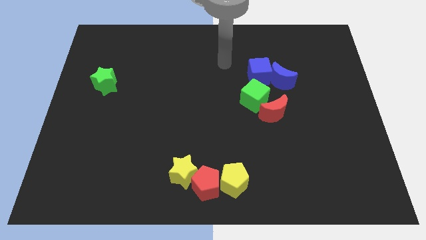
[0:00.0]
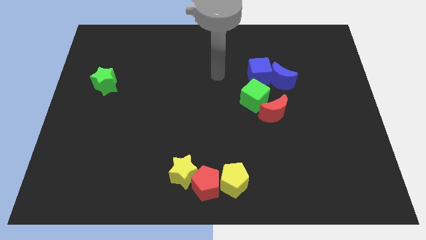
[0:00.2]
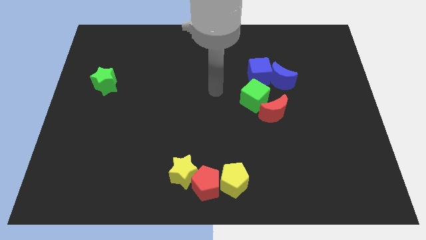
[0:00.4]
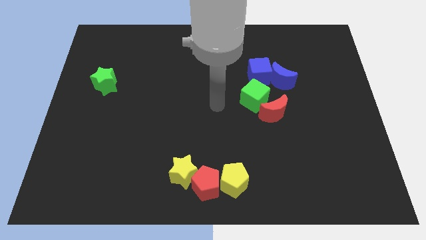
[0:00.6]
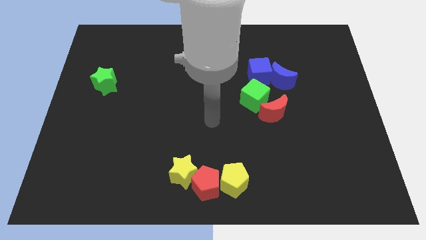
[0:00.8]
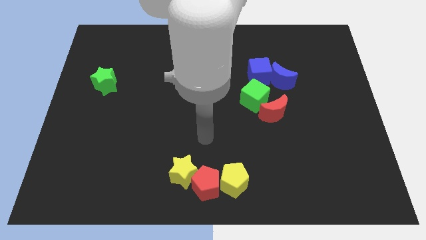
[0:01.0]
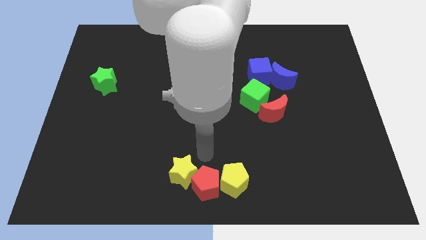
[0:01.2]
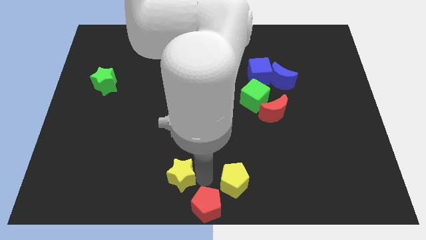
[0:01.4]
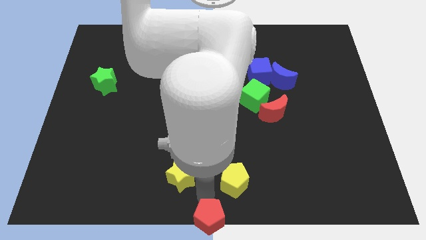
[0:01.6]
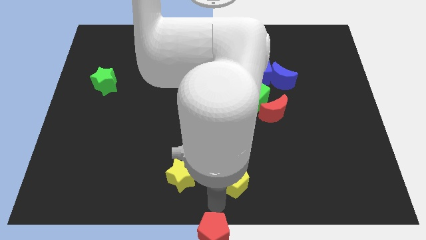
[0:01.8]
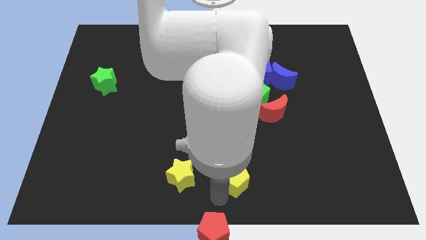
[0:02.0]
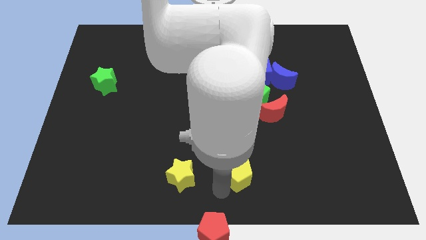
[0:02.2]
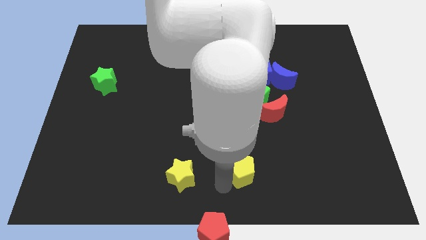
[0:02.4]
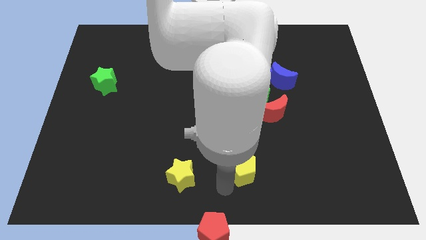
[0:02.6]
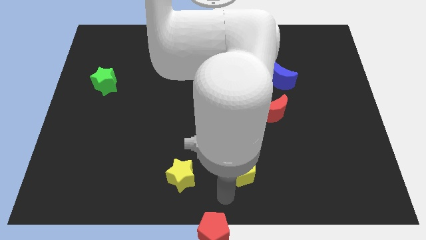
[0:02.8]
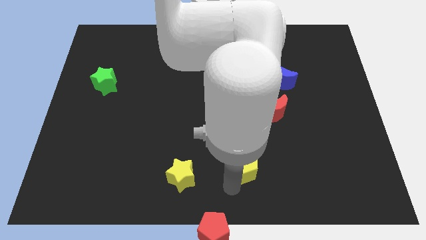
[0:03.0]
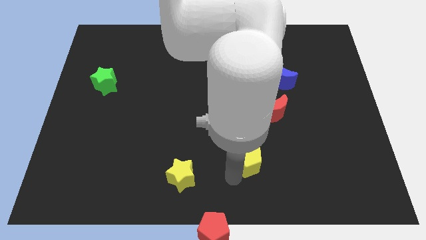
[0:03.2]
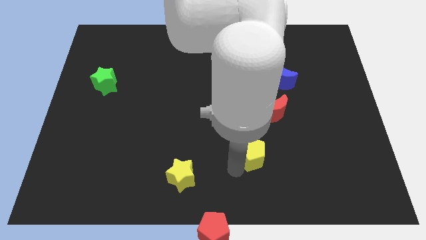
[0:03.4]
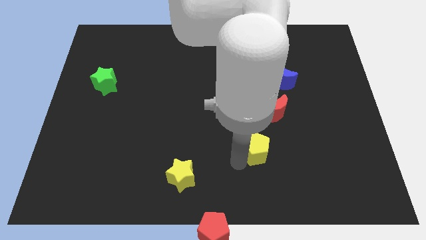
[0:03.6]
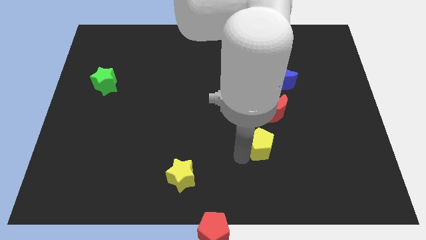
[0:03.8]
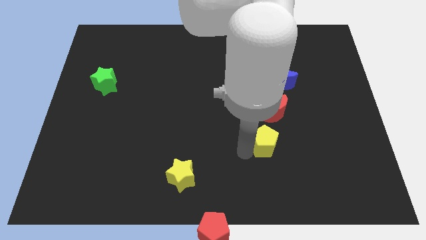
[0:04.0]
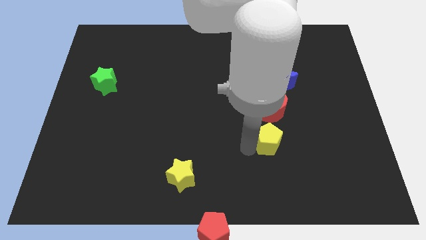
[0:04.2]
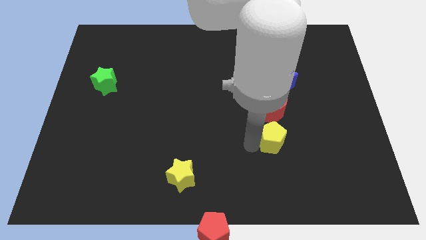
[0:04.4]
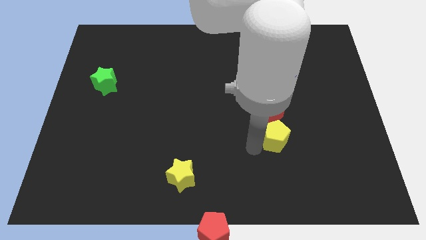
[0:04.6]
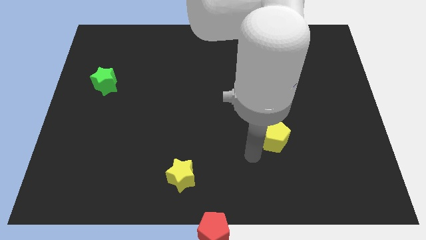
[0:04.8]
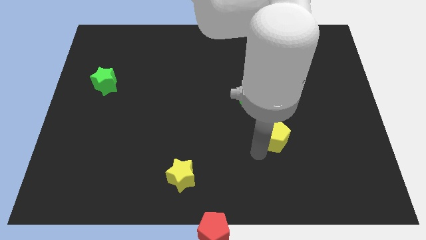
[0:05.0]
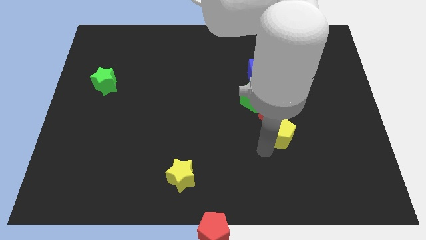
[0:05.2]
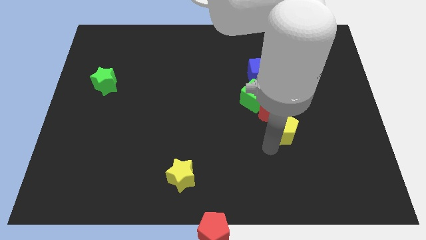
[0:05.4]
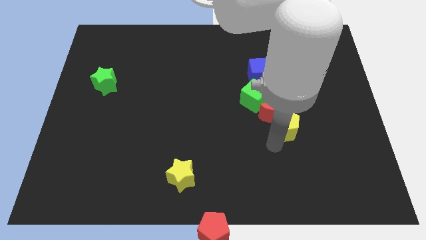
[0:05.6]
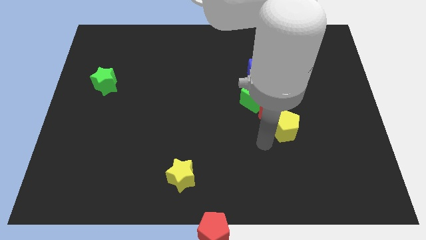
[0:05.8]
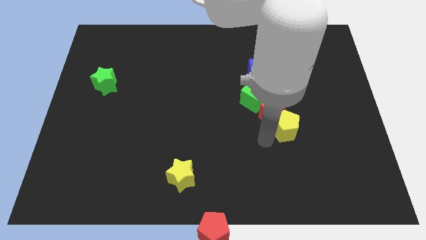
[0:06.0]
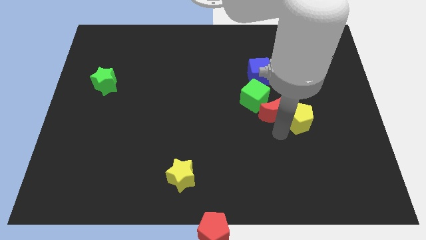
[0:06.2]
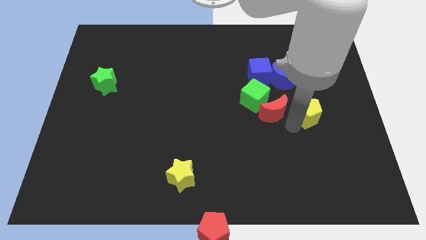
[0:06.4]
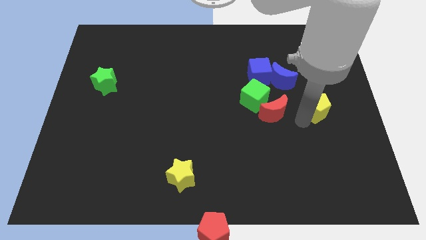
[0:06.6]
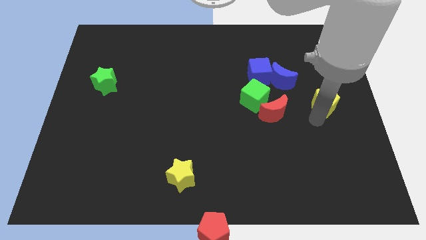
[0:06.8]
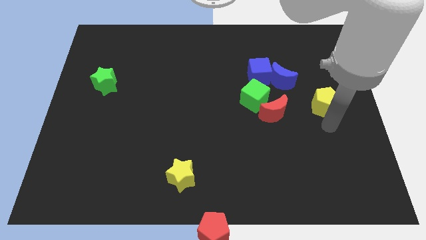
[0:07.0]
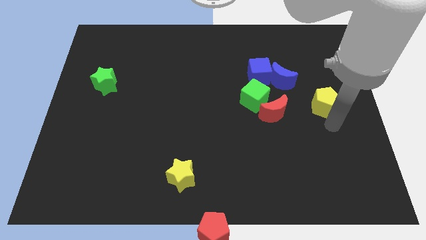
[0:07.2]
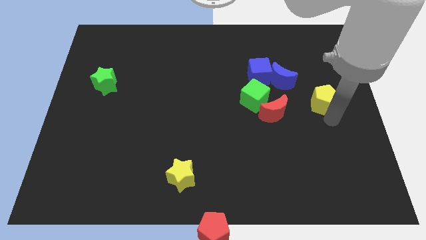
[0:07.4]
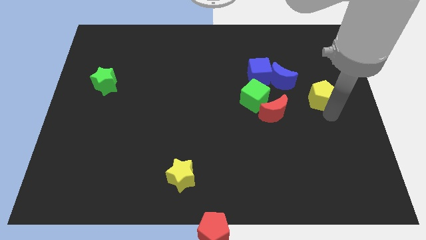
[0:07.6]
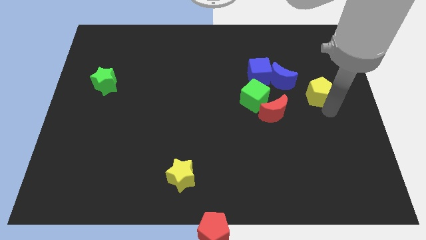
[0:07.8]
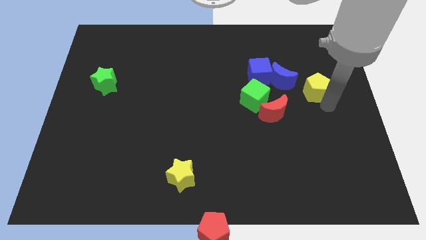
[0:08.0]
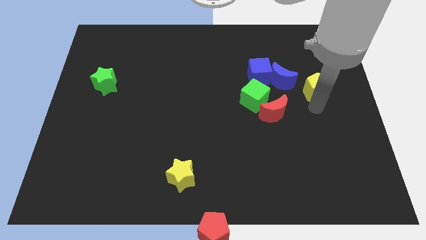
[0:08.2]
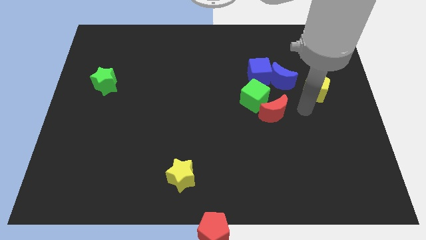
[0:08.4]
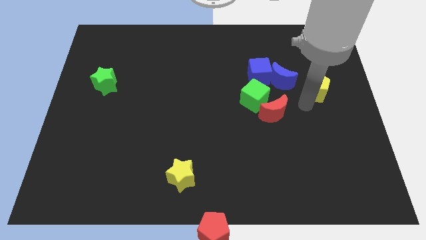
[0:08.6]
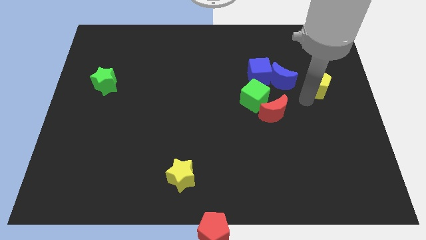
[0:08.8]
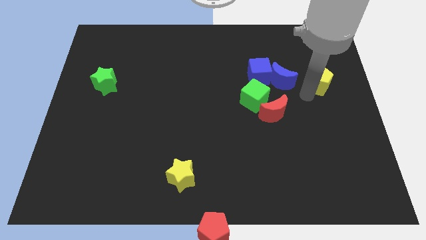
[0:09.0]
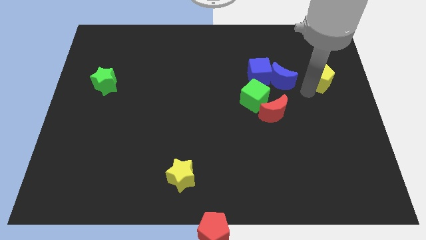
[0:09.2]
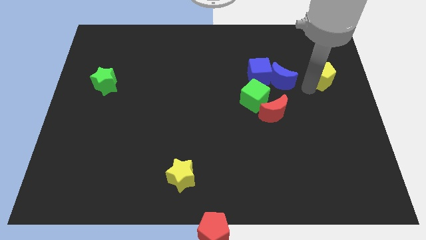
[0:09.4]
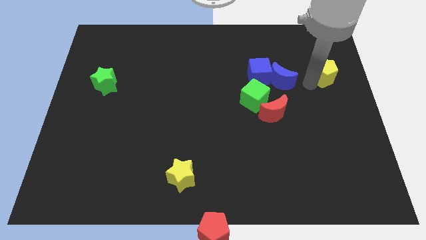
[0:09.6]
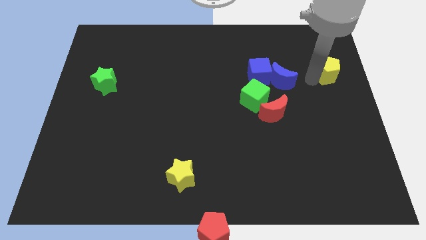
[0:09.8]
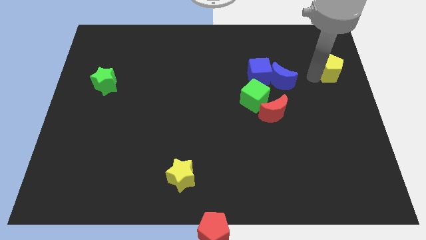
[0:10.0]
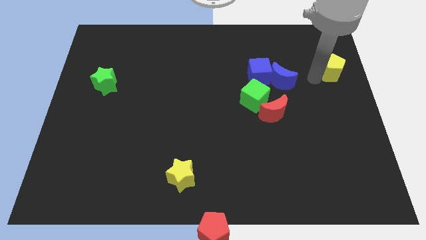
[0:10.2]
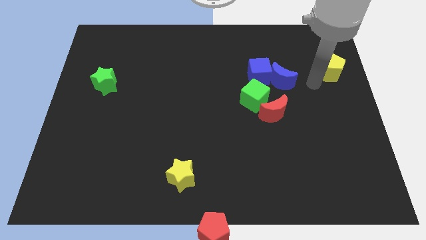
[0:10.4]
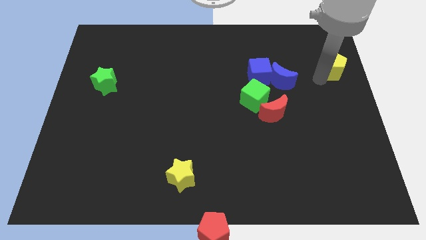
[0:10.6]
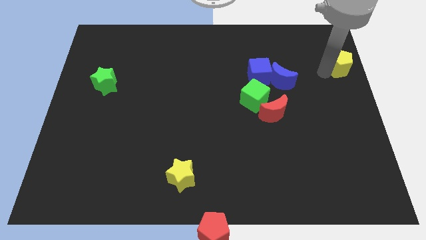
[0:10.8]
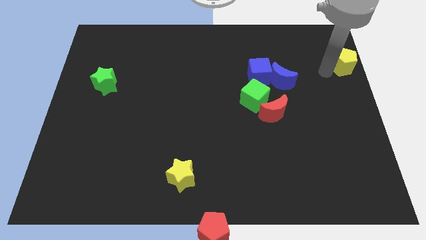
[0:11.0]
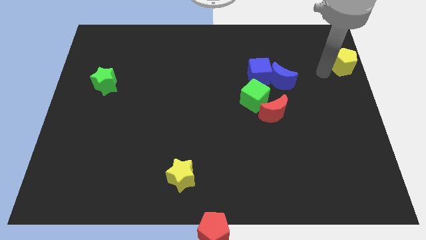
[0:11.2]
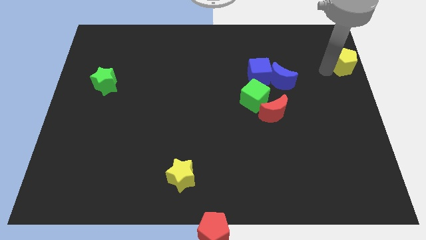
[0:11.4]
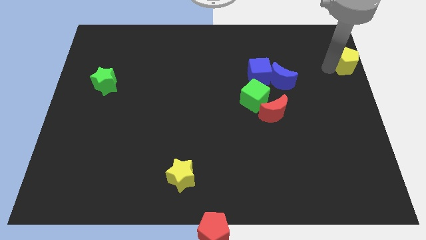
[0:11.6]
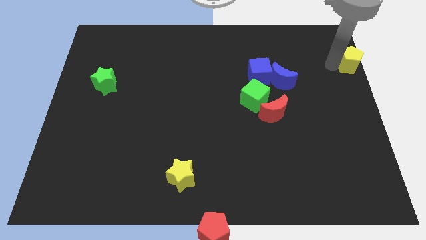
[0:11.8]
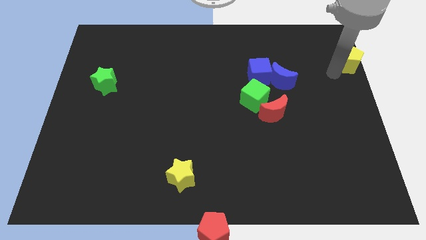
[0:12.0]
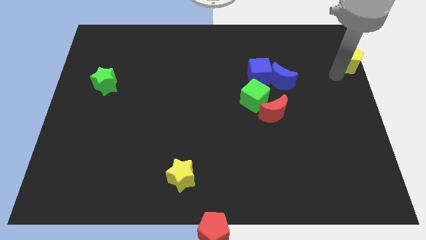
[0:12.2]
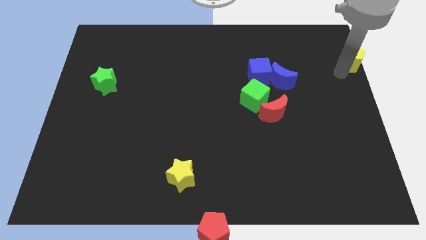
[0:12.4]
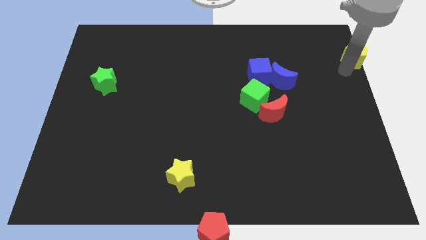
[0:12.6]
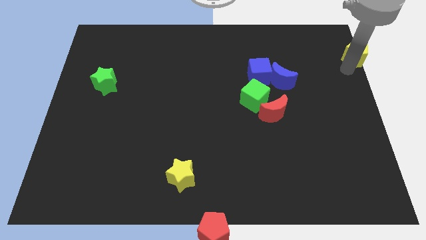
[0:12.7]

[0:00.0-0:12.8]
slide the yellow pentagon to the top right corner
